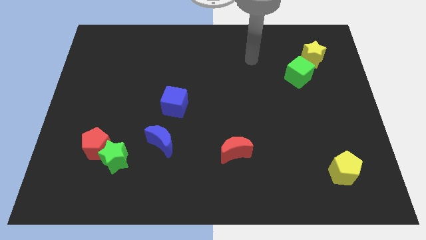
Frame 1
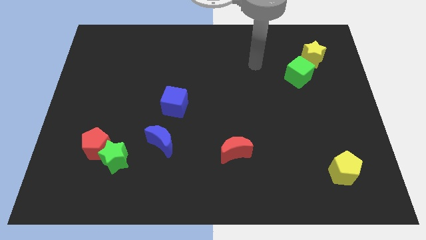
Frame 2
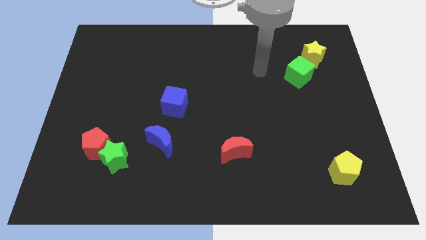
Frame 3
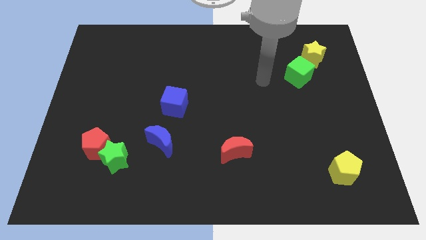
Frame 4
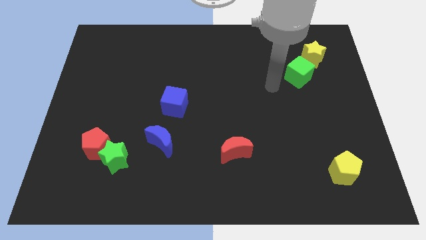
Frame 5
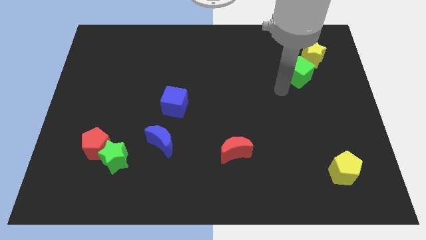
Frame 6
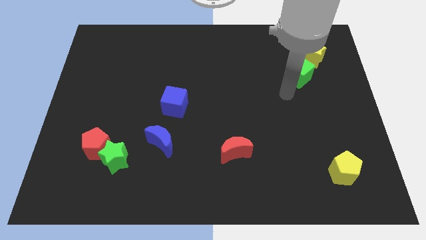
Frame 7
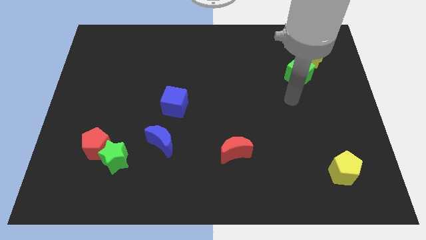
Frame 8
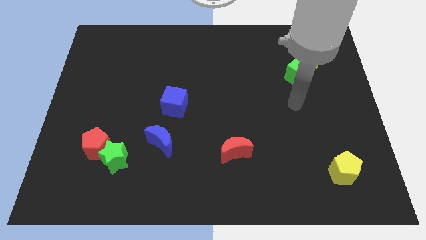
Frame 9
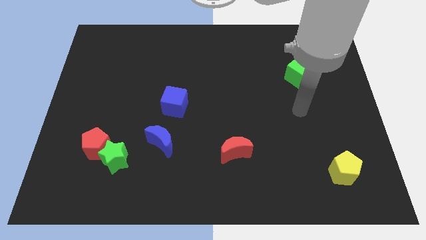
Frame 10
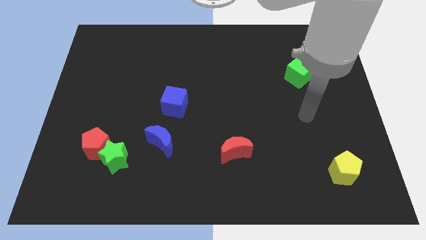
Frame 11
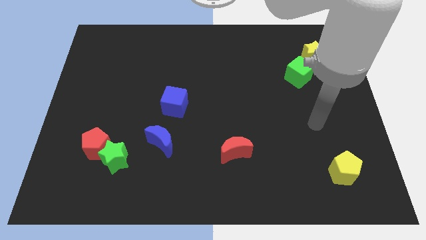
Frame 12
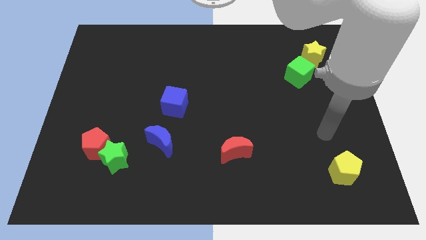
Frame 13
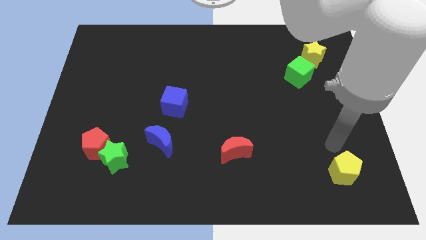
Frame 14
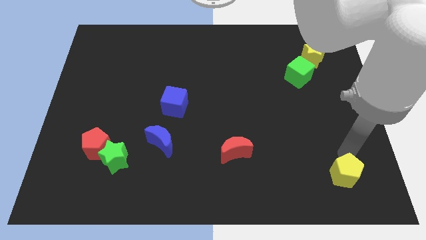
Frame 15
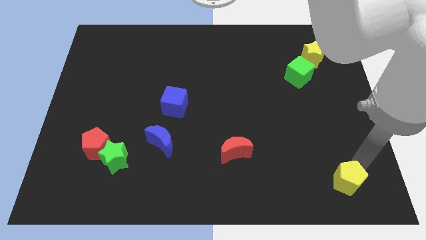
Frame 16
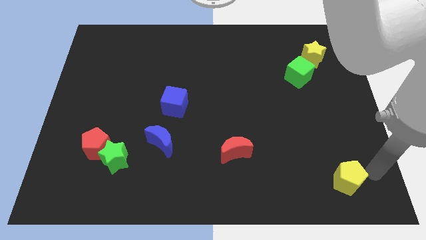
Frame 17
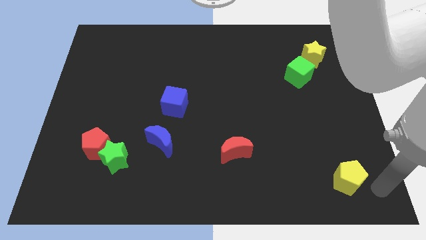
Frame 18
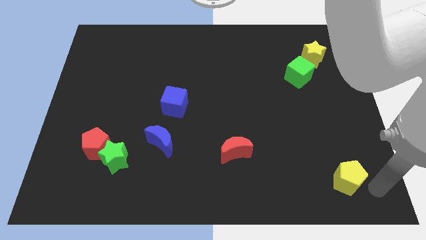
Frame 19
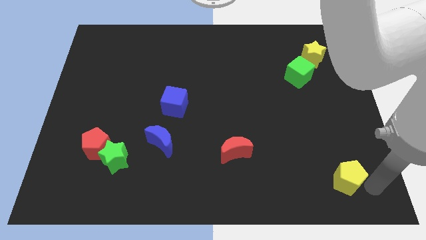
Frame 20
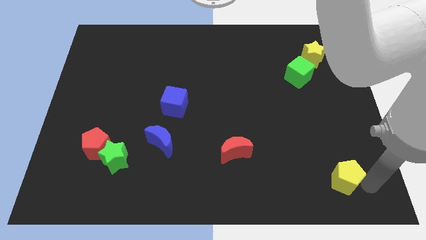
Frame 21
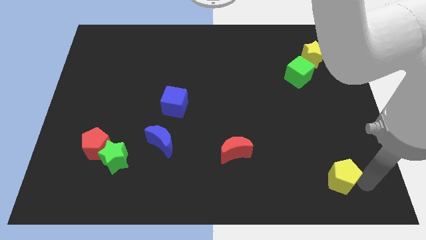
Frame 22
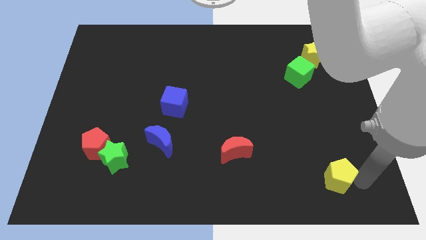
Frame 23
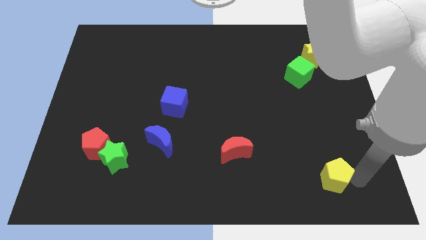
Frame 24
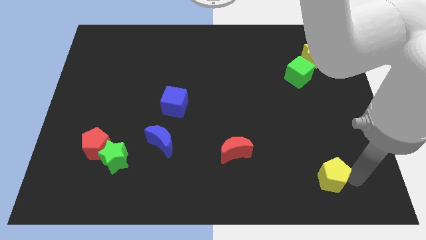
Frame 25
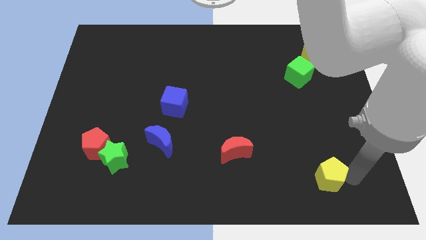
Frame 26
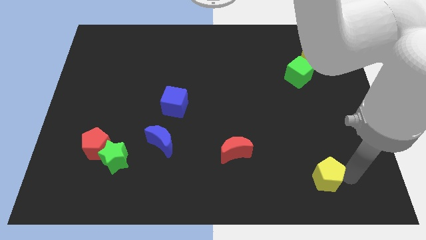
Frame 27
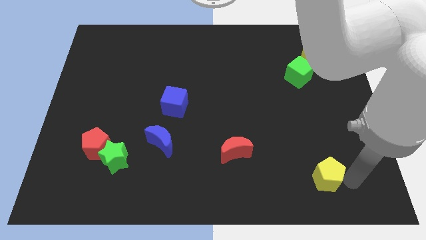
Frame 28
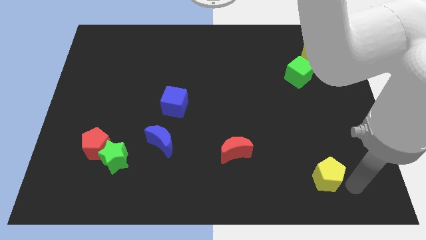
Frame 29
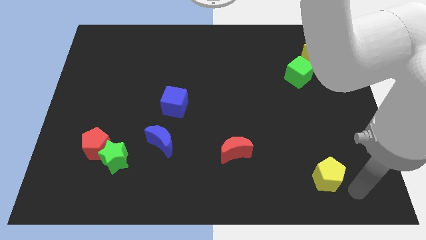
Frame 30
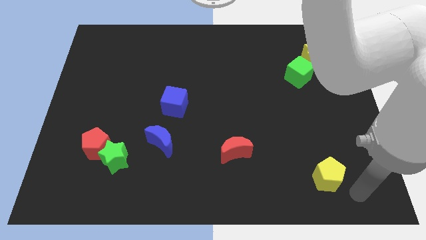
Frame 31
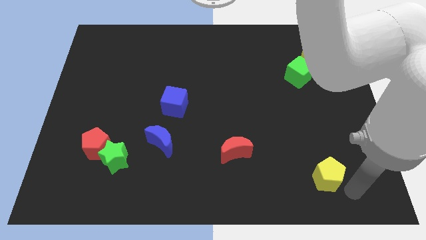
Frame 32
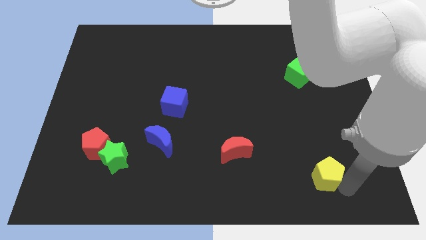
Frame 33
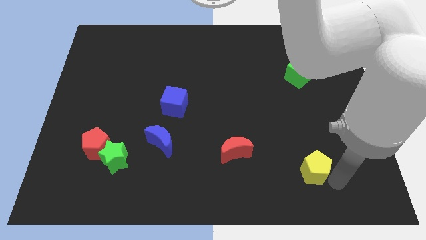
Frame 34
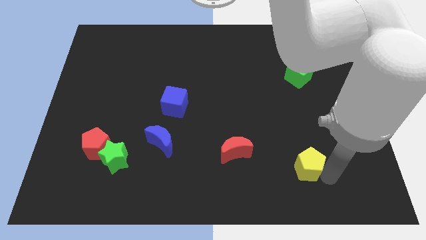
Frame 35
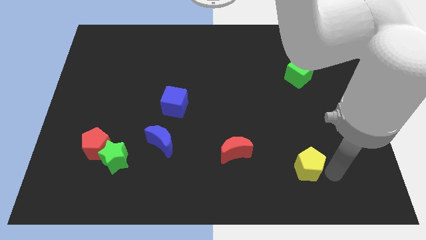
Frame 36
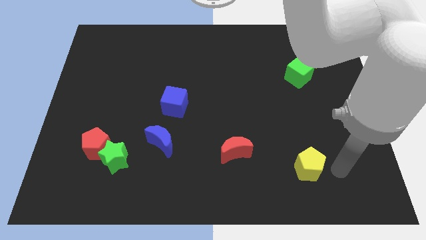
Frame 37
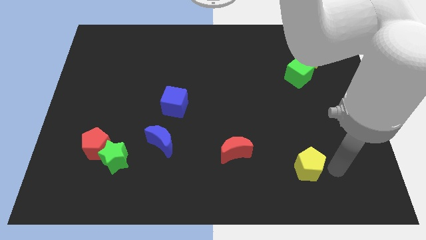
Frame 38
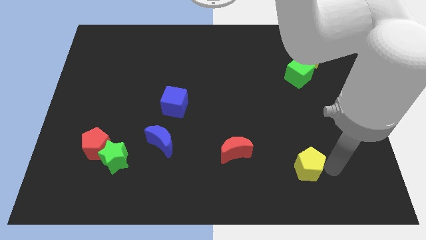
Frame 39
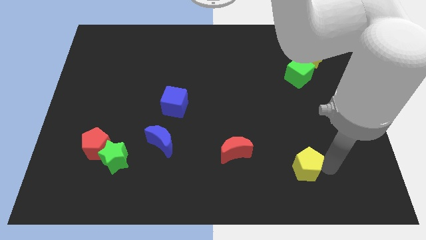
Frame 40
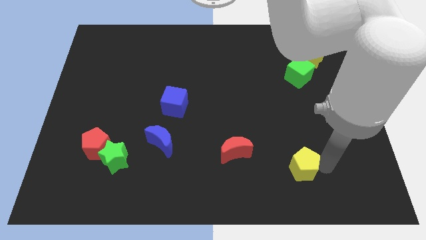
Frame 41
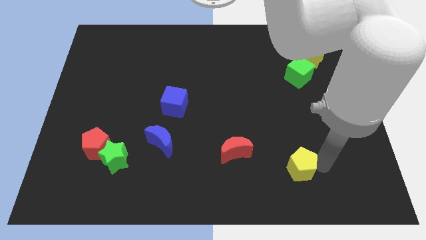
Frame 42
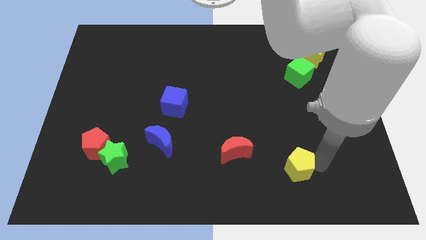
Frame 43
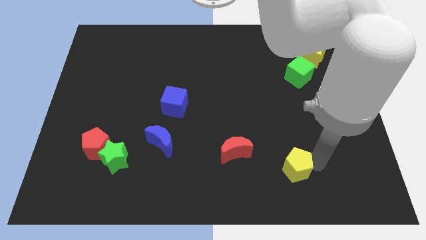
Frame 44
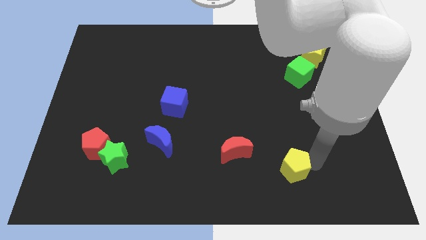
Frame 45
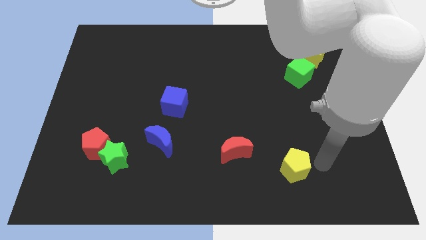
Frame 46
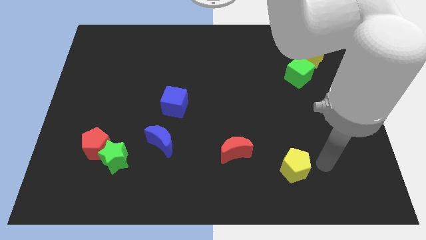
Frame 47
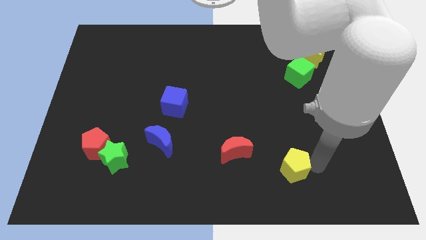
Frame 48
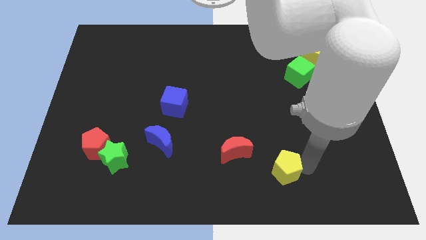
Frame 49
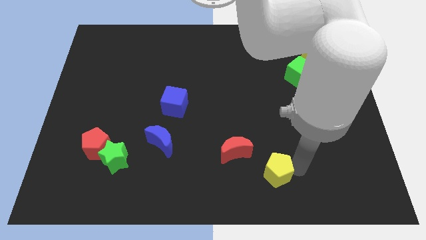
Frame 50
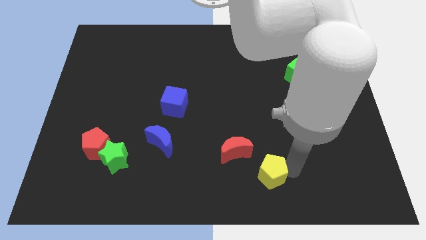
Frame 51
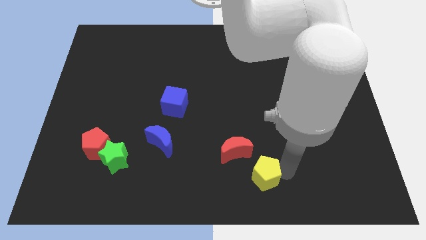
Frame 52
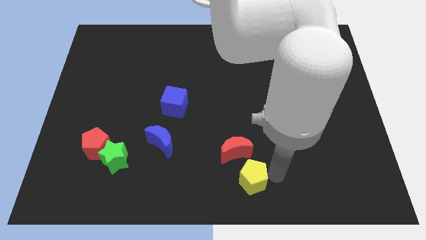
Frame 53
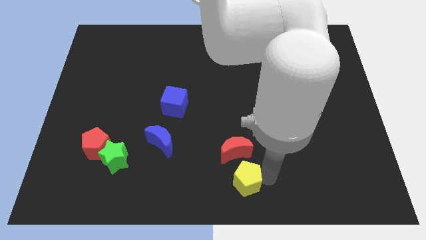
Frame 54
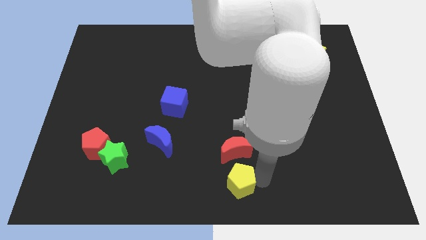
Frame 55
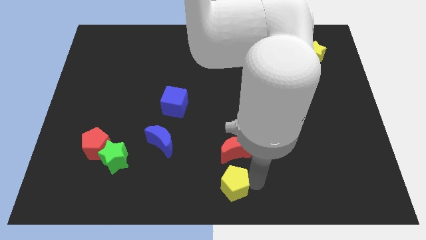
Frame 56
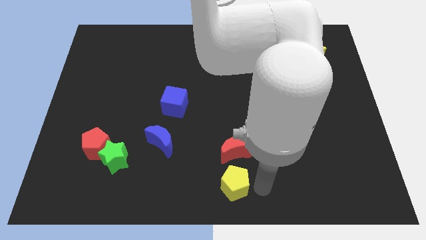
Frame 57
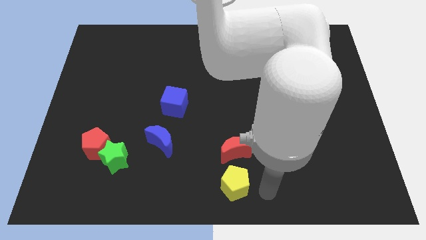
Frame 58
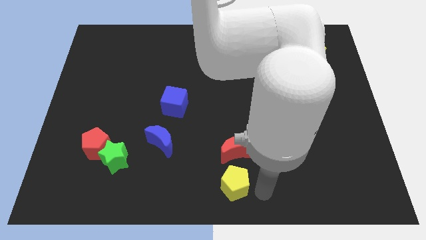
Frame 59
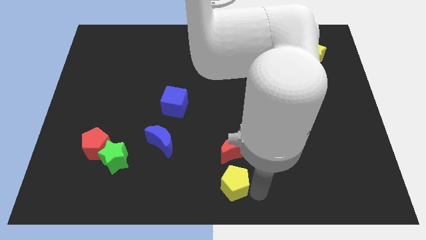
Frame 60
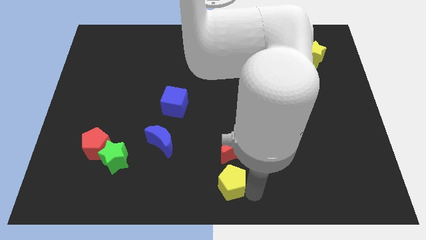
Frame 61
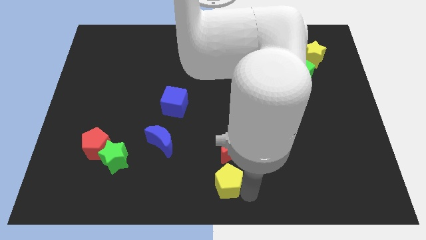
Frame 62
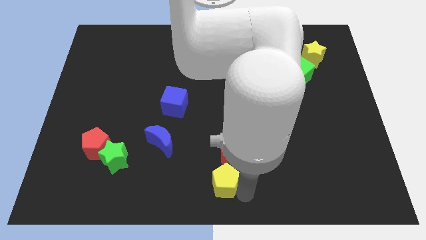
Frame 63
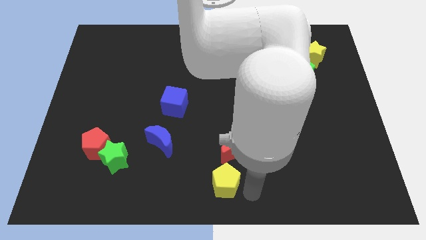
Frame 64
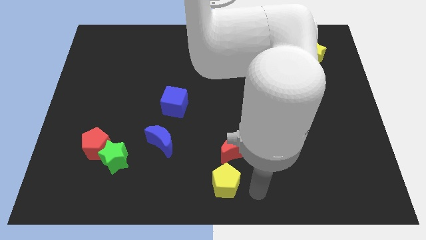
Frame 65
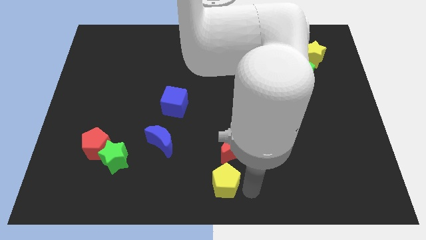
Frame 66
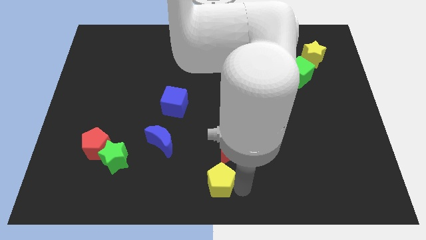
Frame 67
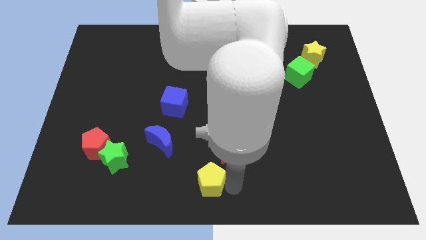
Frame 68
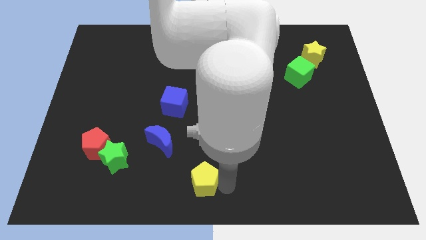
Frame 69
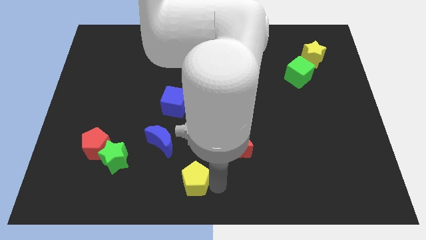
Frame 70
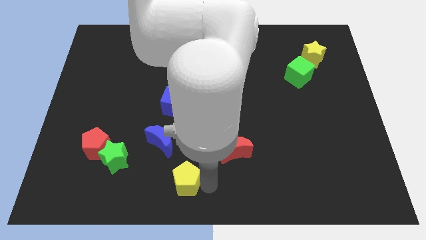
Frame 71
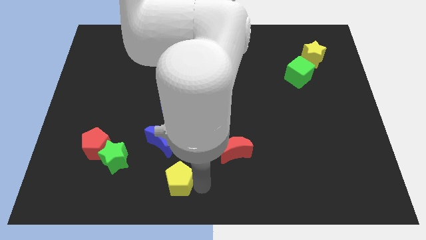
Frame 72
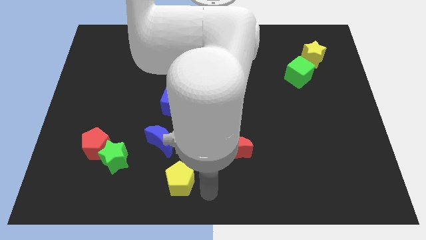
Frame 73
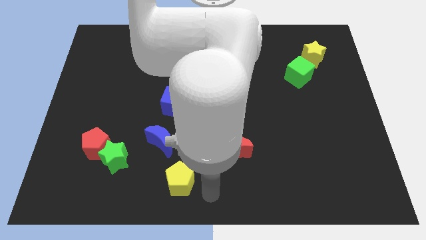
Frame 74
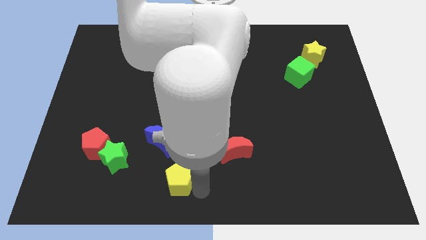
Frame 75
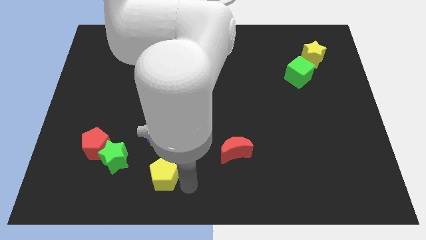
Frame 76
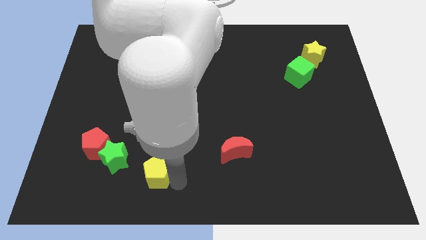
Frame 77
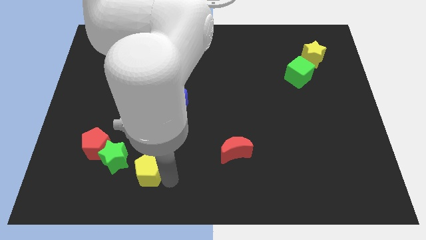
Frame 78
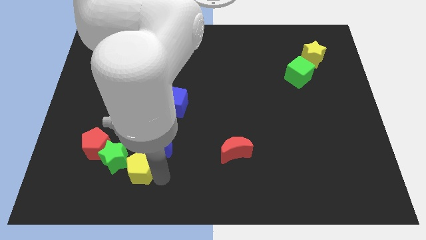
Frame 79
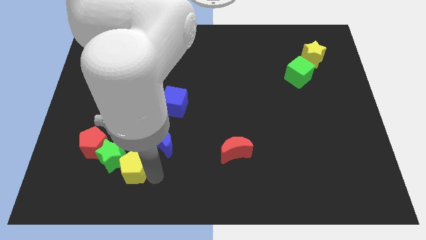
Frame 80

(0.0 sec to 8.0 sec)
put the yellow pentagon to the green star
